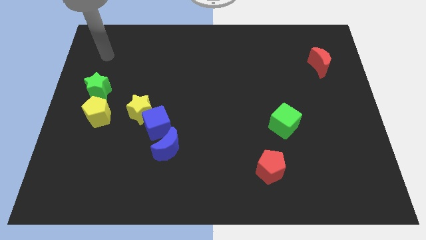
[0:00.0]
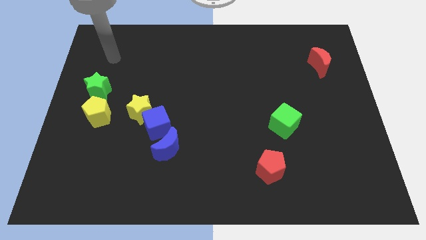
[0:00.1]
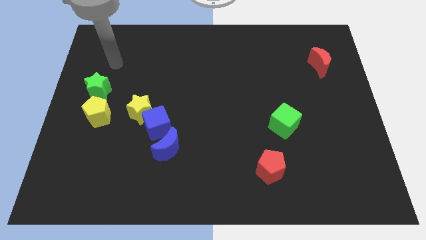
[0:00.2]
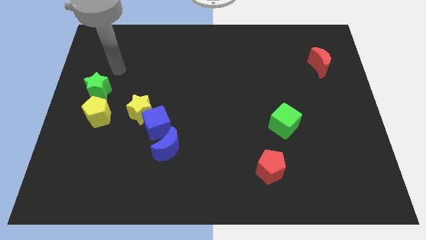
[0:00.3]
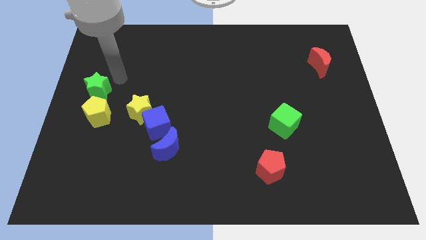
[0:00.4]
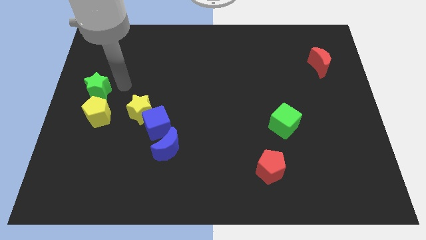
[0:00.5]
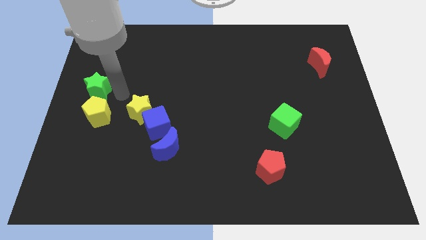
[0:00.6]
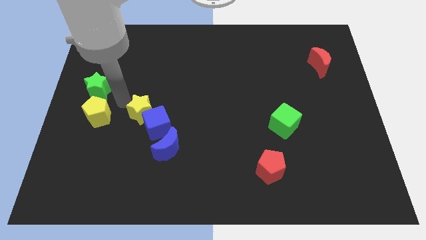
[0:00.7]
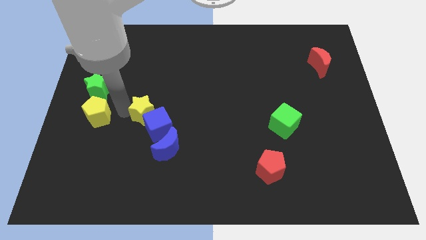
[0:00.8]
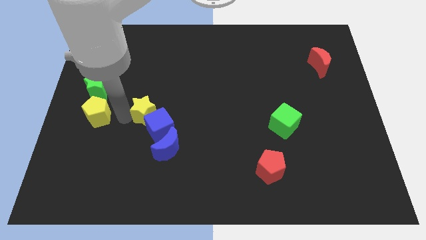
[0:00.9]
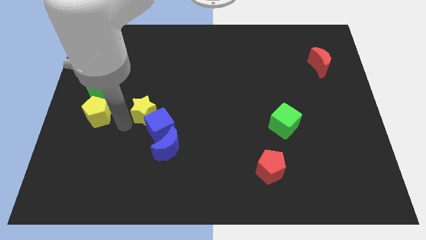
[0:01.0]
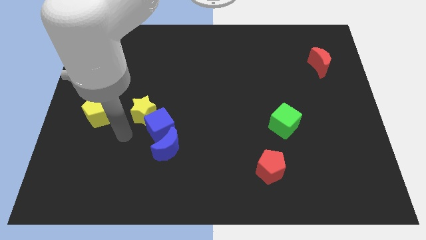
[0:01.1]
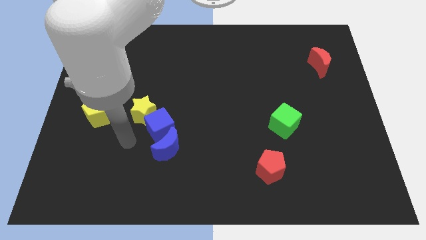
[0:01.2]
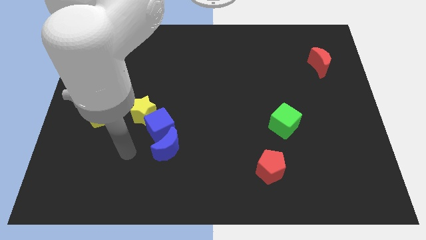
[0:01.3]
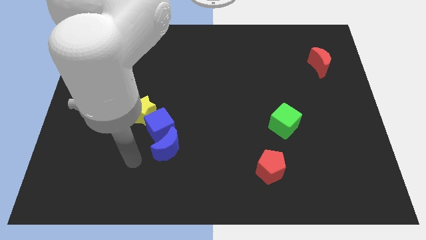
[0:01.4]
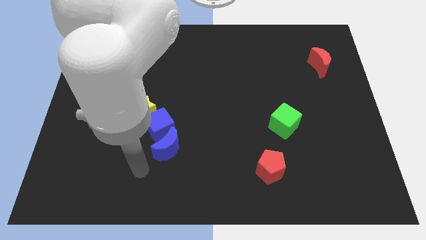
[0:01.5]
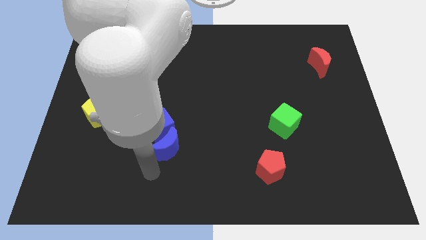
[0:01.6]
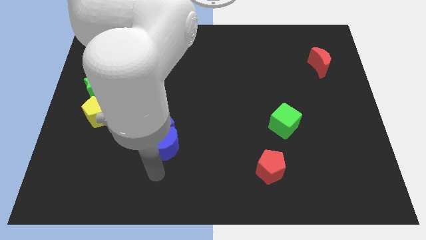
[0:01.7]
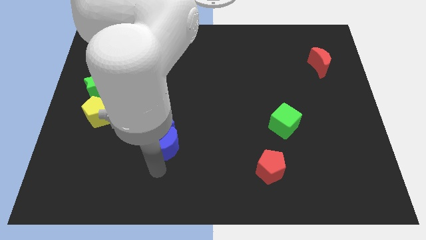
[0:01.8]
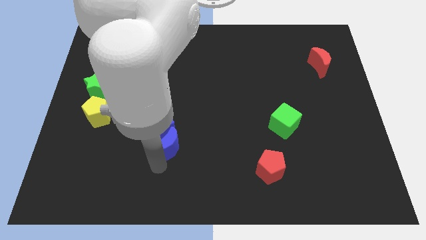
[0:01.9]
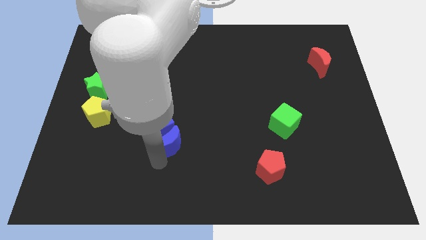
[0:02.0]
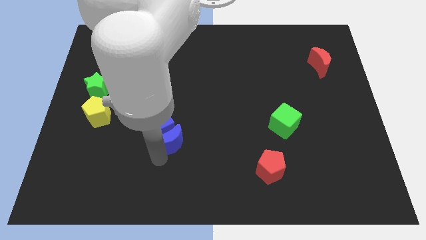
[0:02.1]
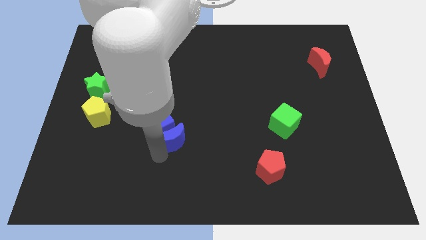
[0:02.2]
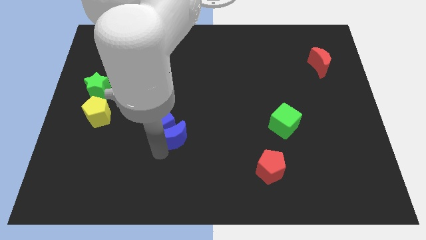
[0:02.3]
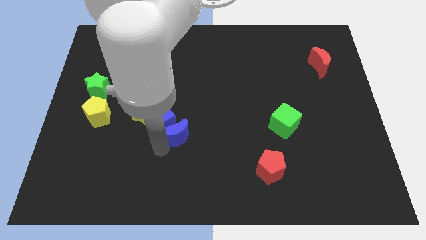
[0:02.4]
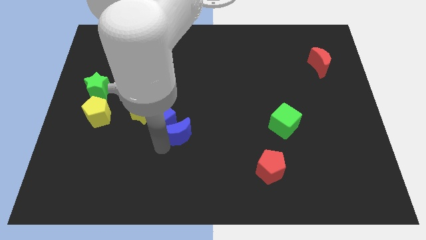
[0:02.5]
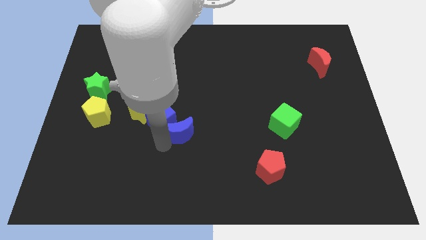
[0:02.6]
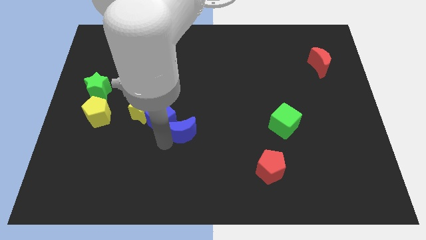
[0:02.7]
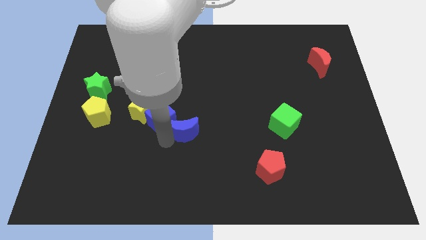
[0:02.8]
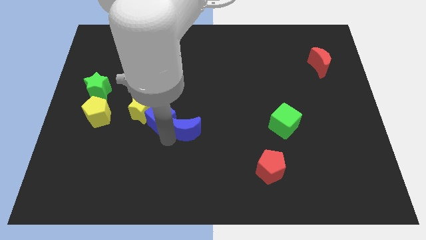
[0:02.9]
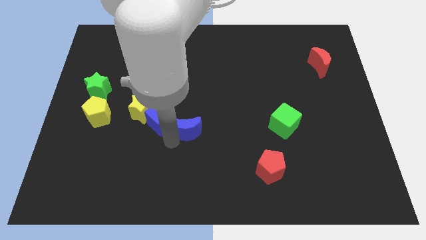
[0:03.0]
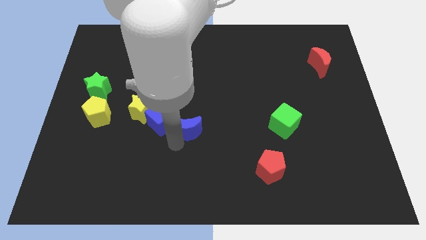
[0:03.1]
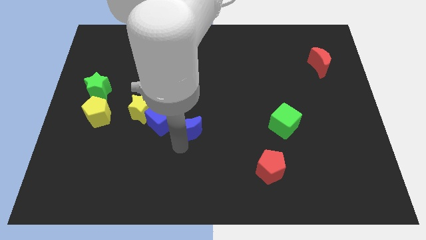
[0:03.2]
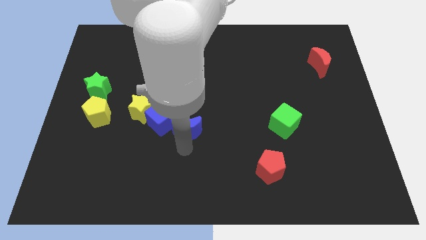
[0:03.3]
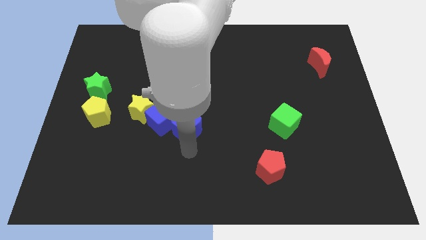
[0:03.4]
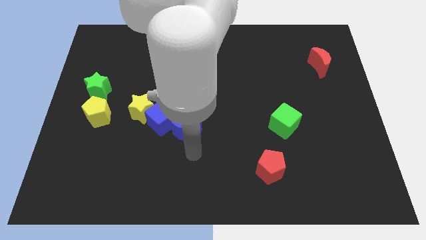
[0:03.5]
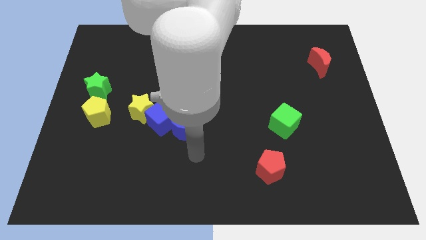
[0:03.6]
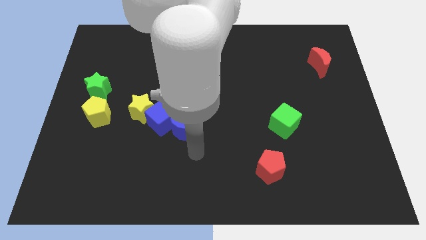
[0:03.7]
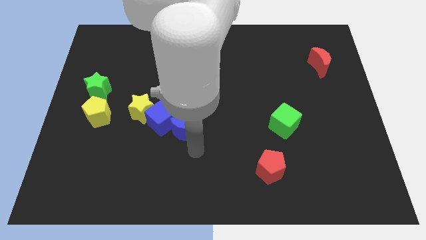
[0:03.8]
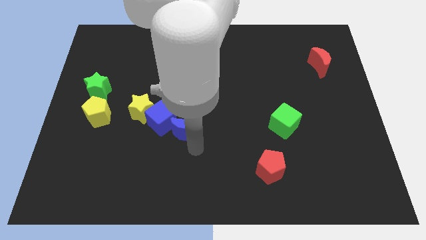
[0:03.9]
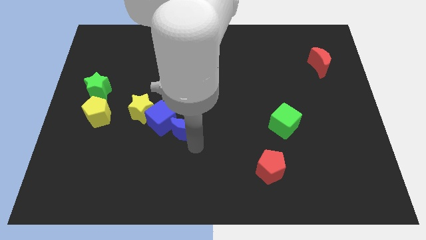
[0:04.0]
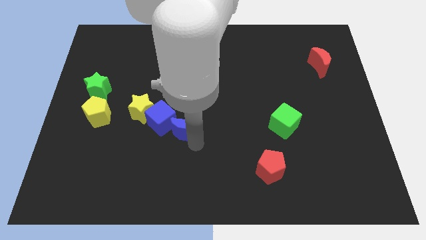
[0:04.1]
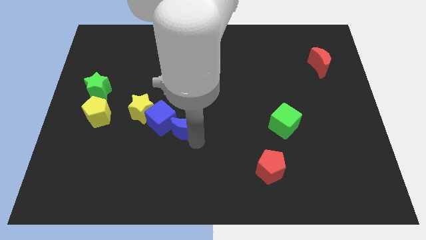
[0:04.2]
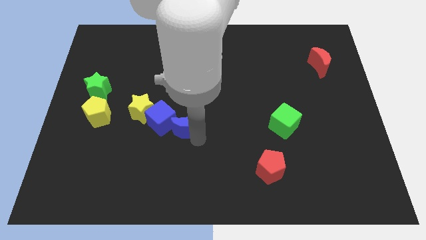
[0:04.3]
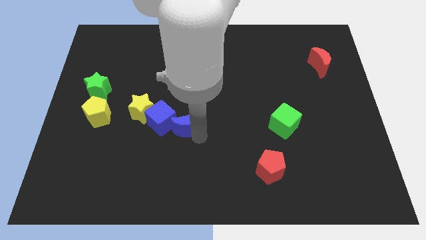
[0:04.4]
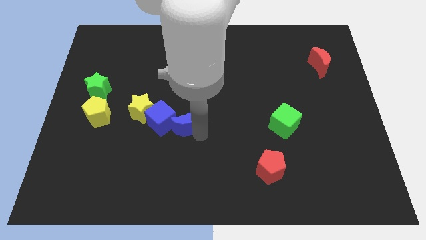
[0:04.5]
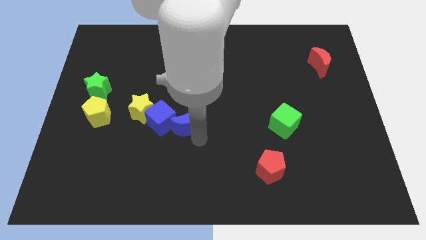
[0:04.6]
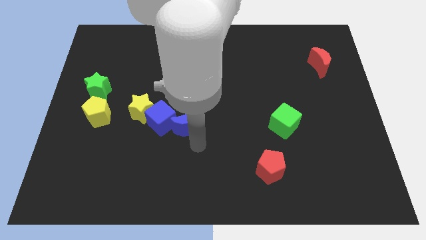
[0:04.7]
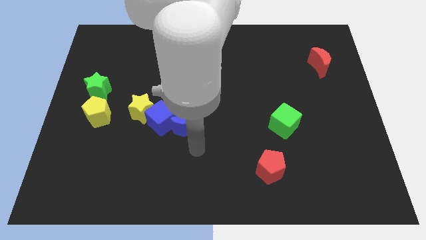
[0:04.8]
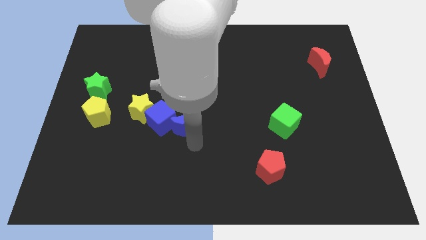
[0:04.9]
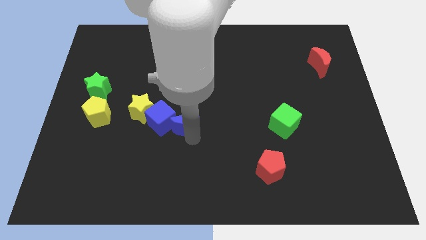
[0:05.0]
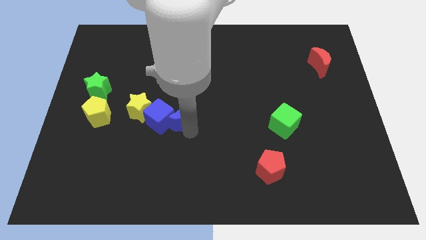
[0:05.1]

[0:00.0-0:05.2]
slightly move the blue moon up

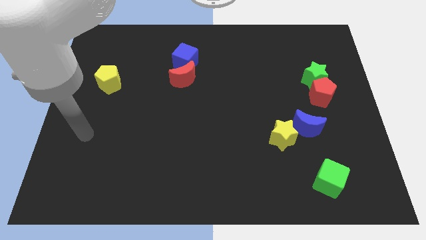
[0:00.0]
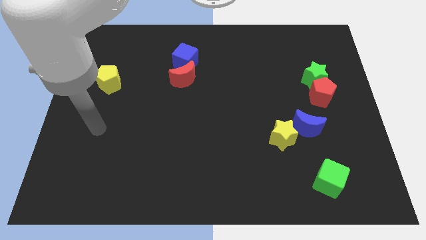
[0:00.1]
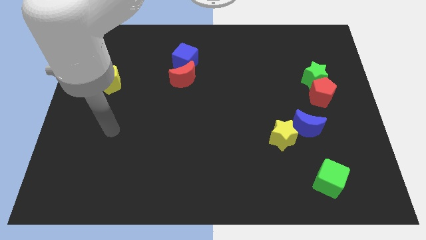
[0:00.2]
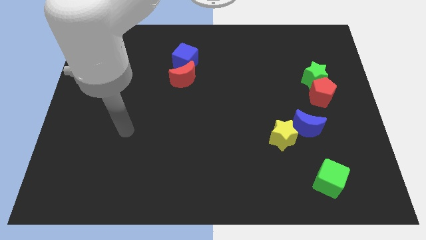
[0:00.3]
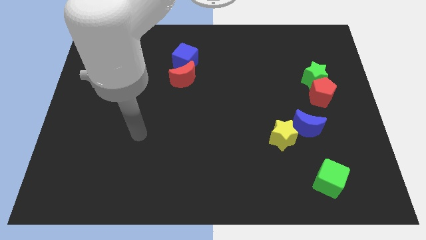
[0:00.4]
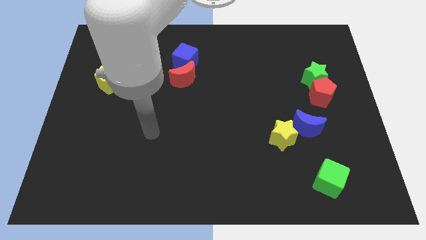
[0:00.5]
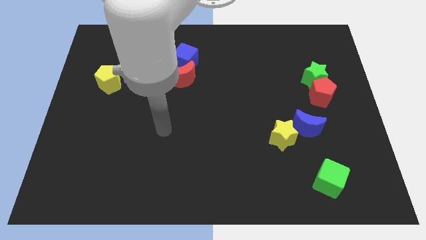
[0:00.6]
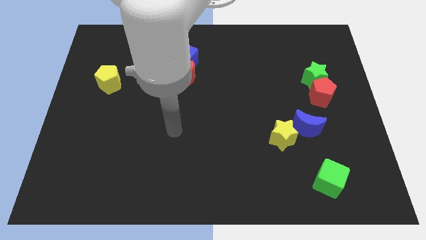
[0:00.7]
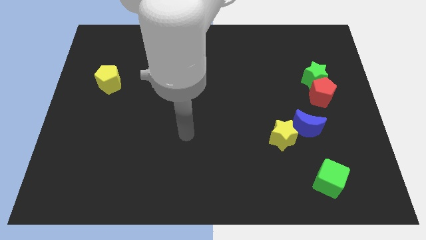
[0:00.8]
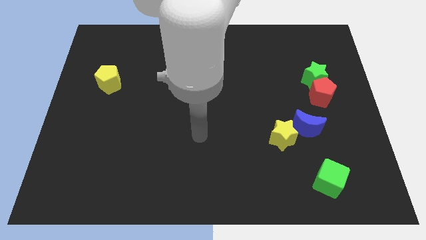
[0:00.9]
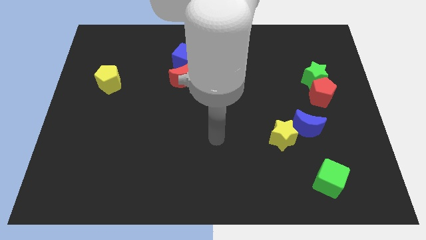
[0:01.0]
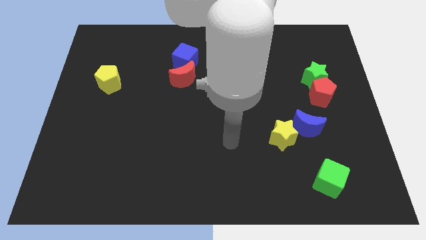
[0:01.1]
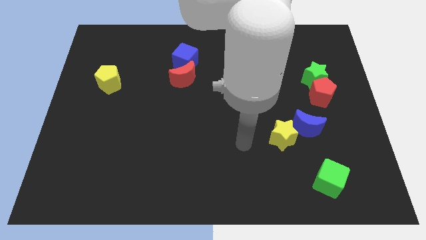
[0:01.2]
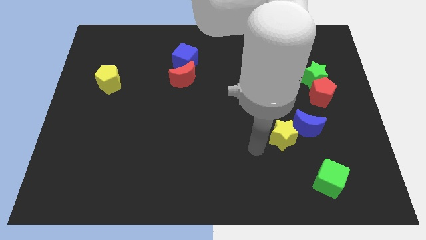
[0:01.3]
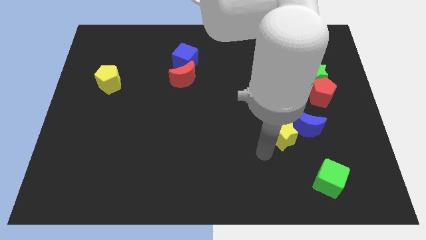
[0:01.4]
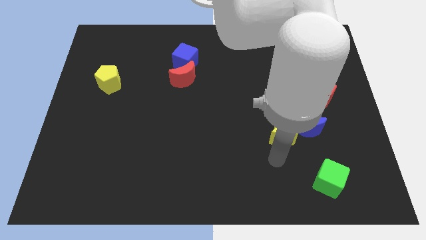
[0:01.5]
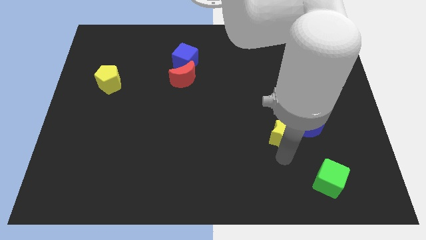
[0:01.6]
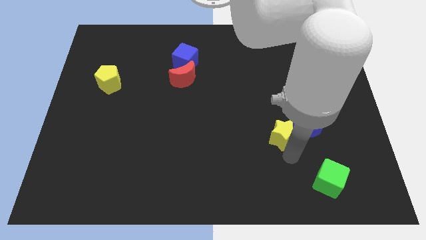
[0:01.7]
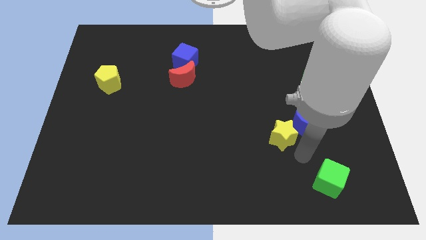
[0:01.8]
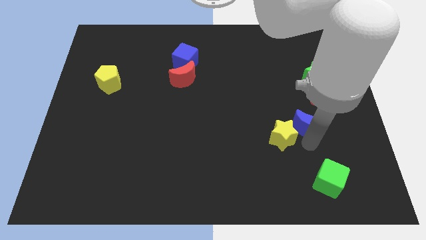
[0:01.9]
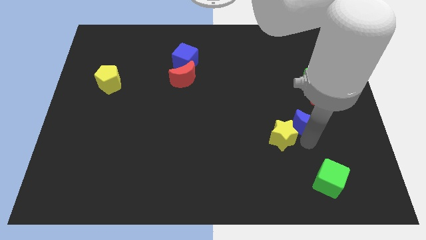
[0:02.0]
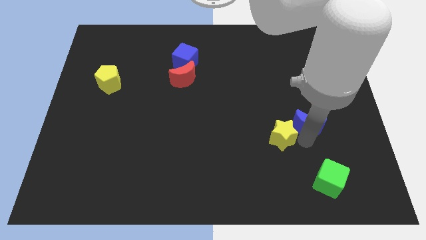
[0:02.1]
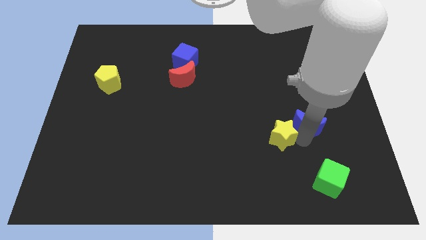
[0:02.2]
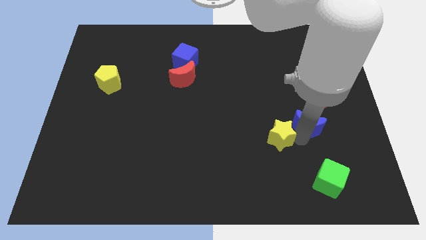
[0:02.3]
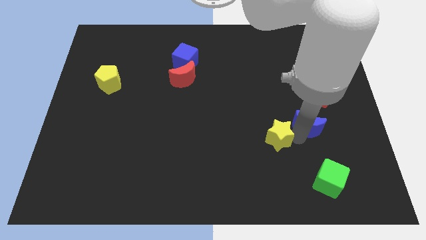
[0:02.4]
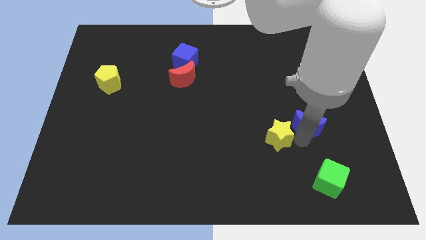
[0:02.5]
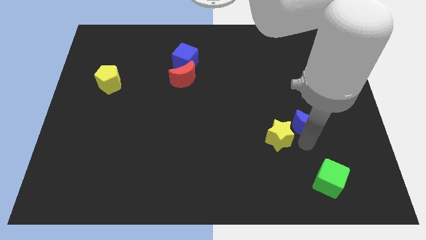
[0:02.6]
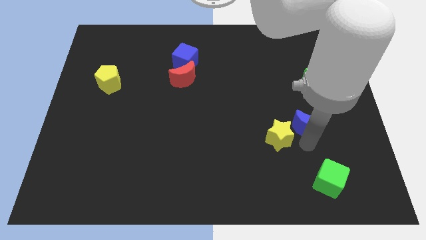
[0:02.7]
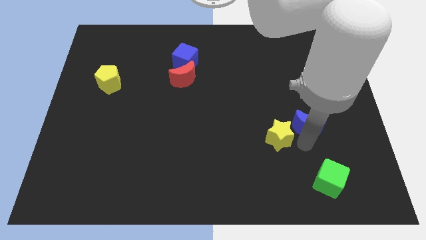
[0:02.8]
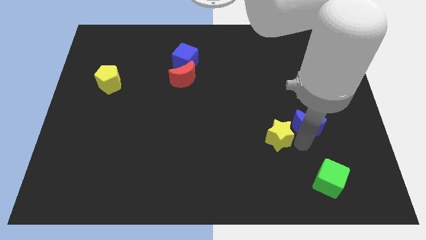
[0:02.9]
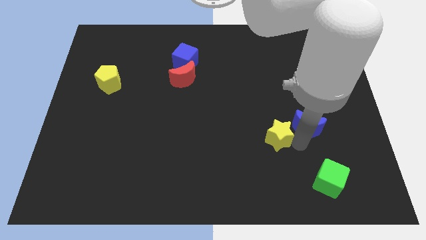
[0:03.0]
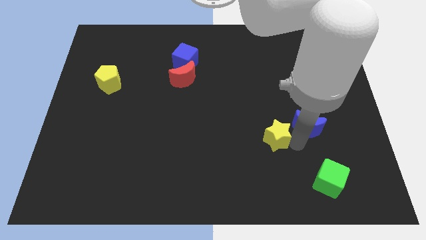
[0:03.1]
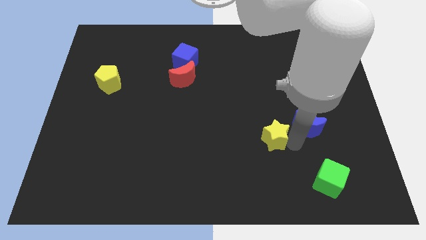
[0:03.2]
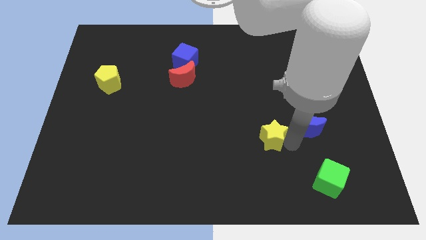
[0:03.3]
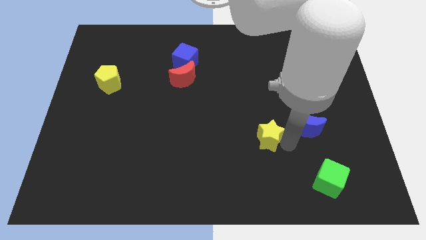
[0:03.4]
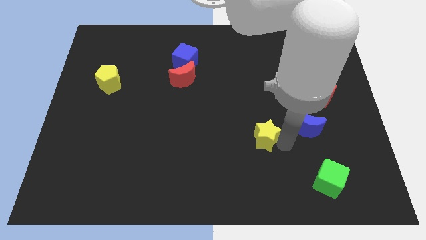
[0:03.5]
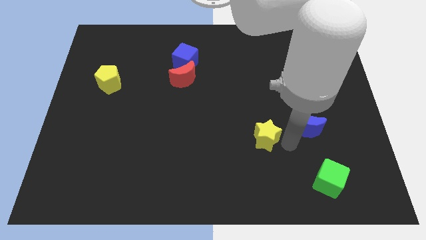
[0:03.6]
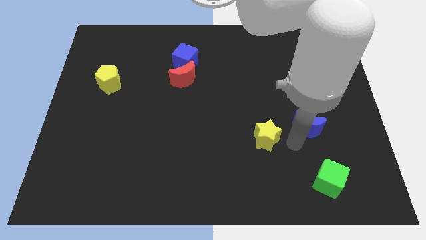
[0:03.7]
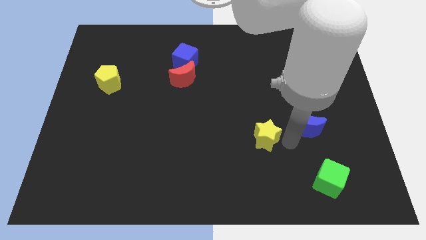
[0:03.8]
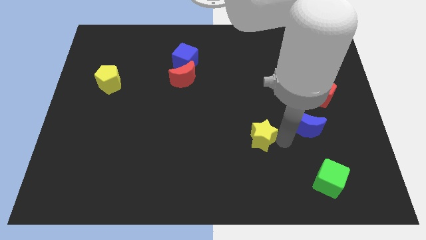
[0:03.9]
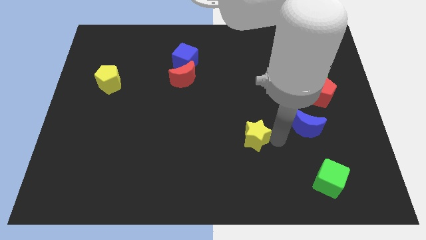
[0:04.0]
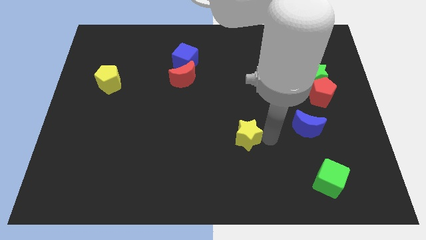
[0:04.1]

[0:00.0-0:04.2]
move the yellow star somewhat to the left
